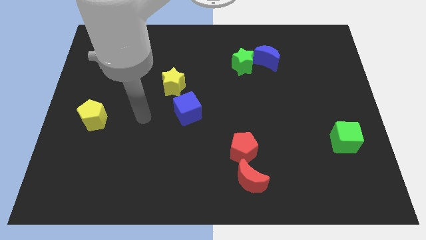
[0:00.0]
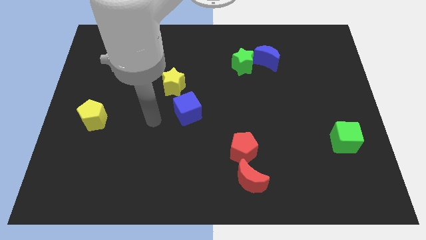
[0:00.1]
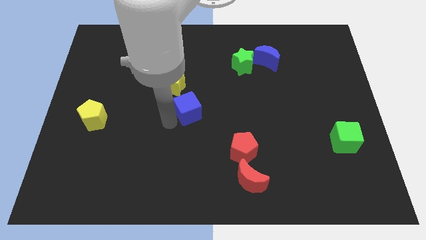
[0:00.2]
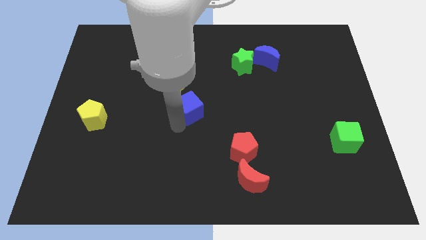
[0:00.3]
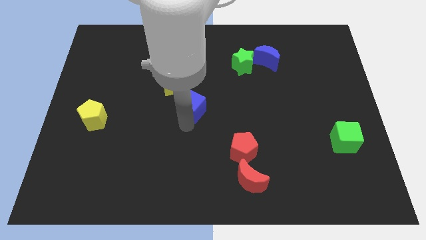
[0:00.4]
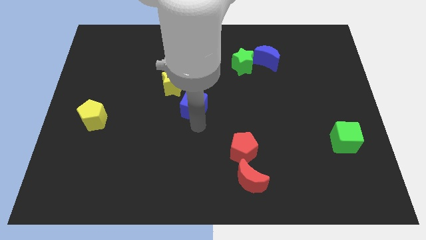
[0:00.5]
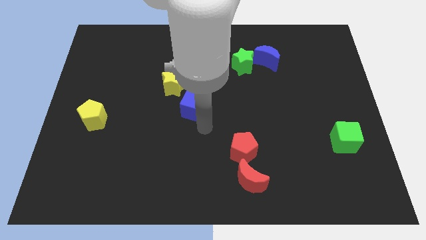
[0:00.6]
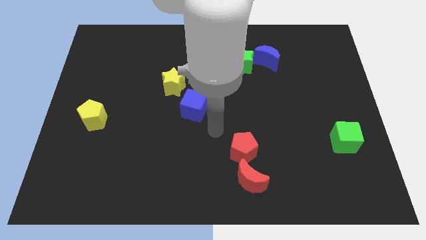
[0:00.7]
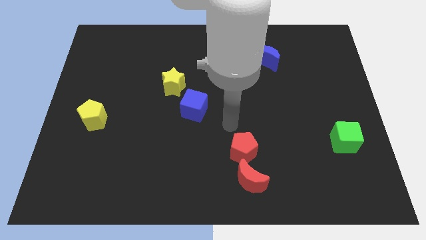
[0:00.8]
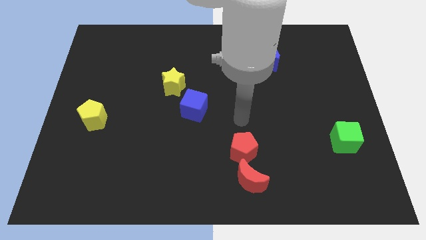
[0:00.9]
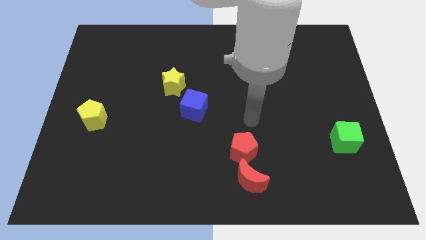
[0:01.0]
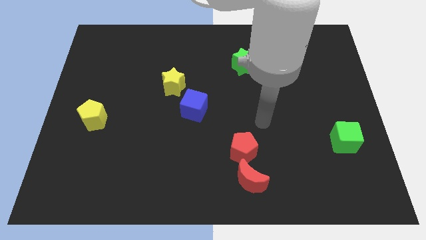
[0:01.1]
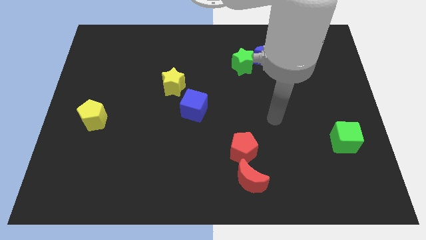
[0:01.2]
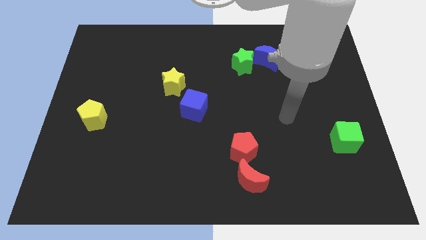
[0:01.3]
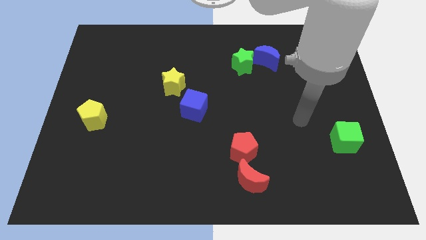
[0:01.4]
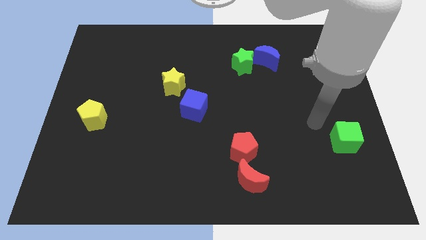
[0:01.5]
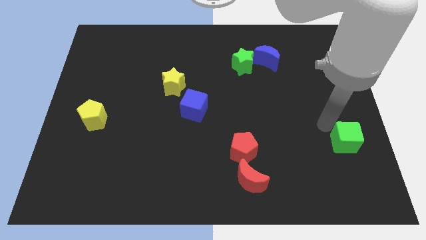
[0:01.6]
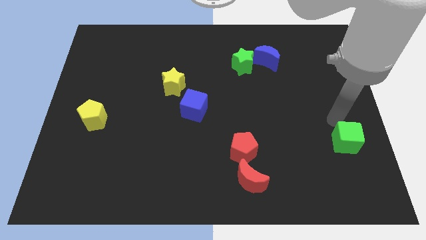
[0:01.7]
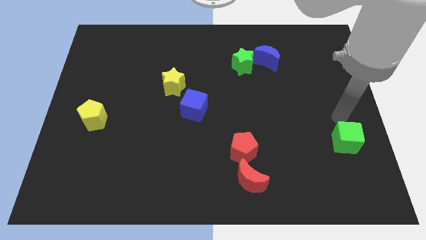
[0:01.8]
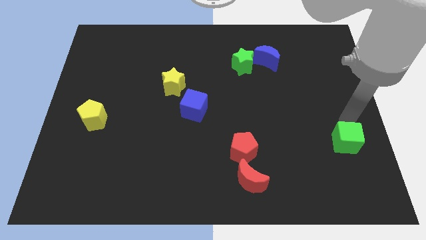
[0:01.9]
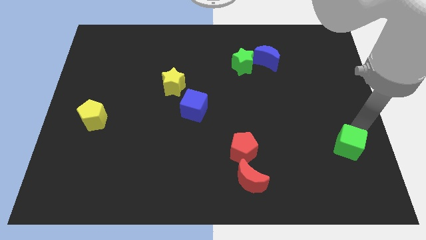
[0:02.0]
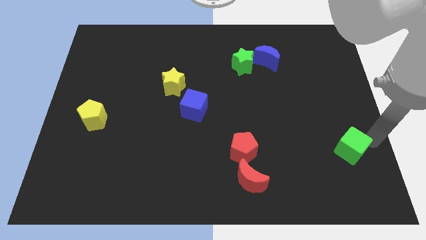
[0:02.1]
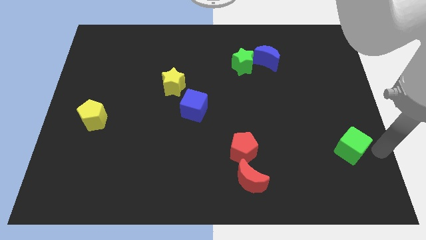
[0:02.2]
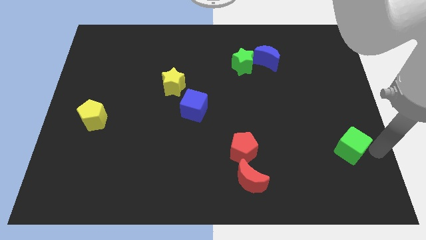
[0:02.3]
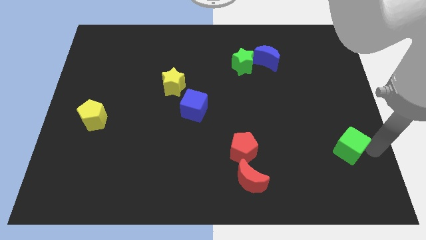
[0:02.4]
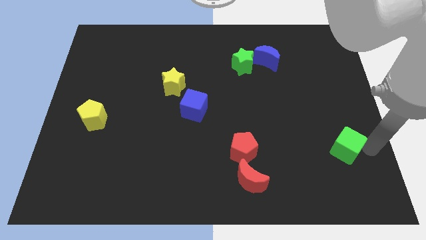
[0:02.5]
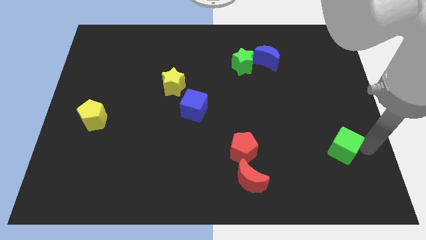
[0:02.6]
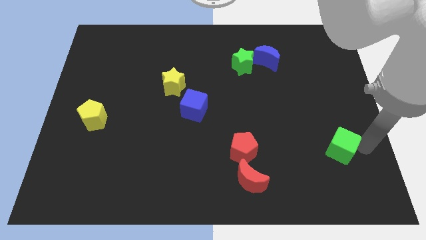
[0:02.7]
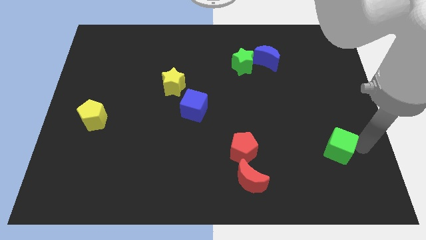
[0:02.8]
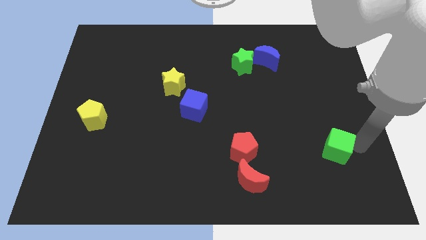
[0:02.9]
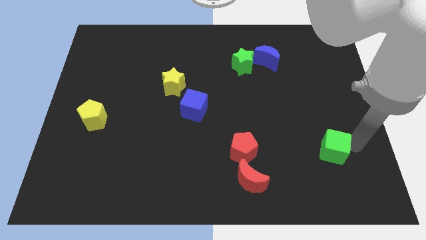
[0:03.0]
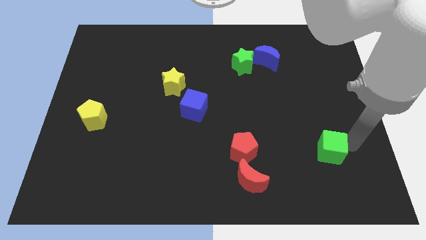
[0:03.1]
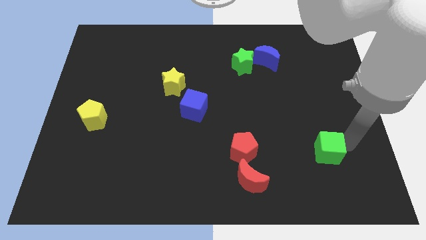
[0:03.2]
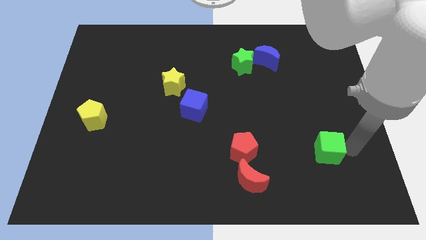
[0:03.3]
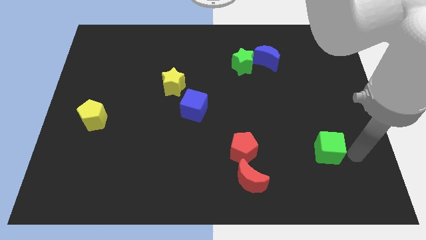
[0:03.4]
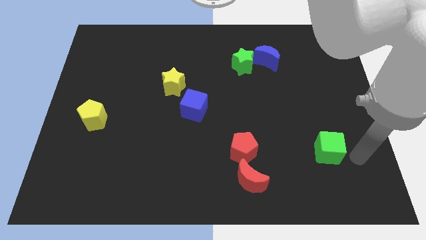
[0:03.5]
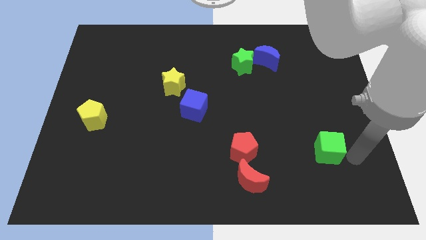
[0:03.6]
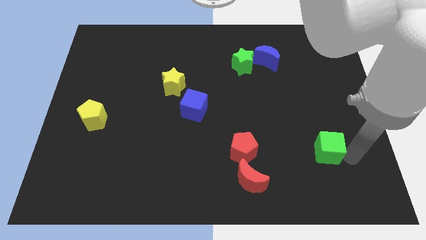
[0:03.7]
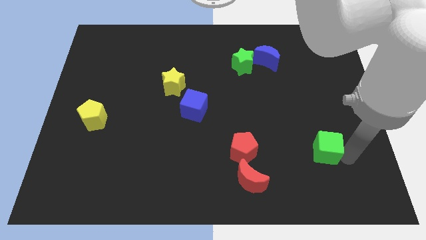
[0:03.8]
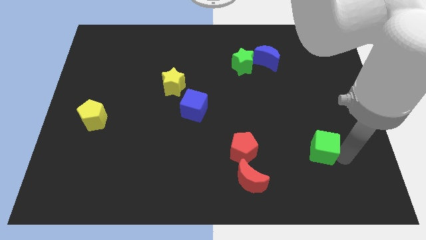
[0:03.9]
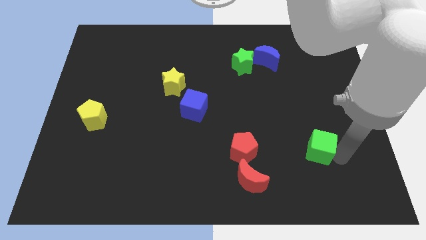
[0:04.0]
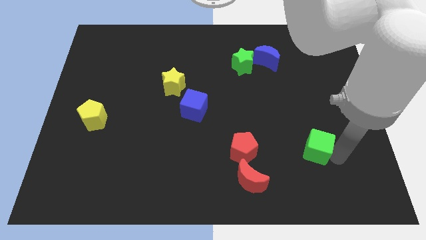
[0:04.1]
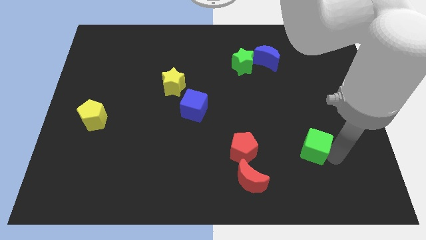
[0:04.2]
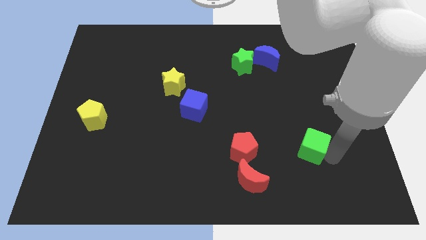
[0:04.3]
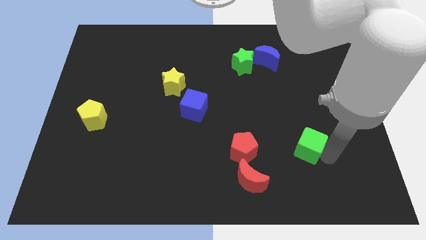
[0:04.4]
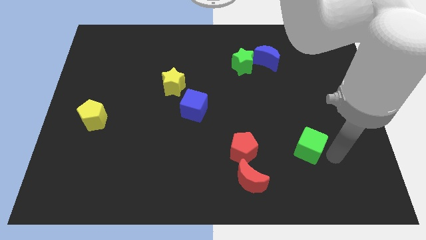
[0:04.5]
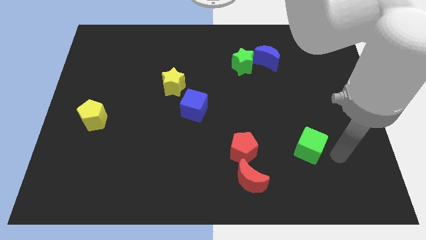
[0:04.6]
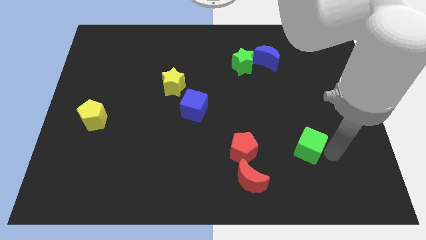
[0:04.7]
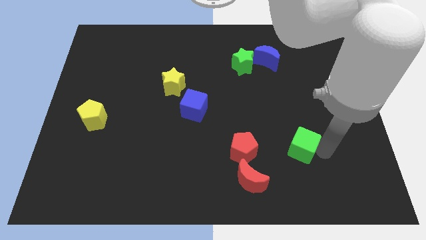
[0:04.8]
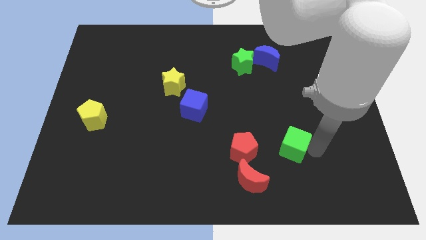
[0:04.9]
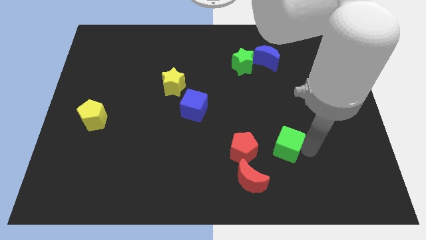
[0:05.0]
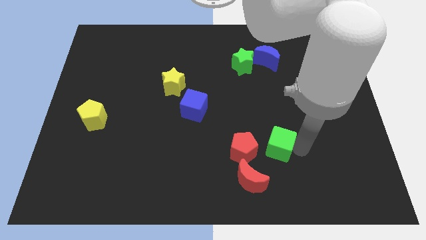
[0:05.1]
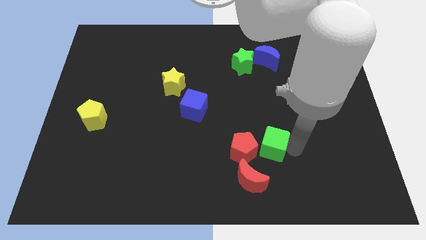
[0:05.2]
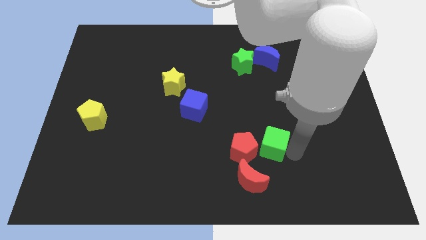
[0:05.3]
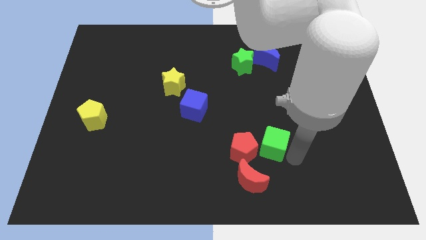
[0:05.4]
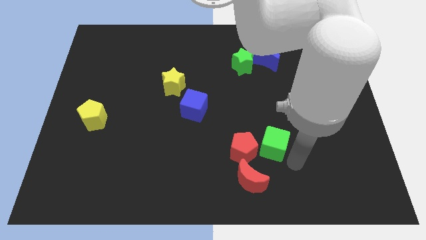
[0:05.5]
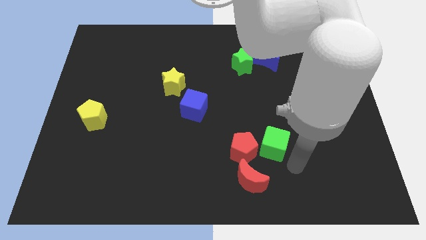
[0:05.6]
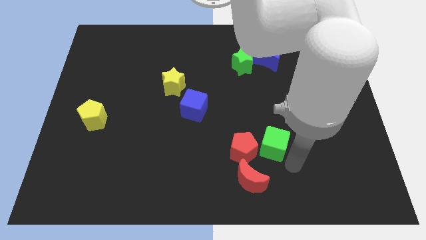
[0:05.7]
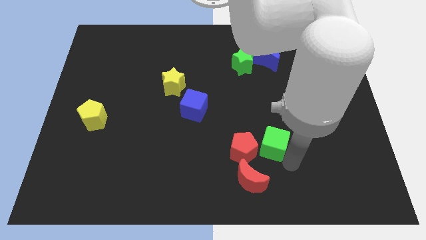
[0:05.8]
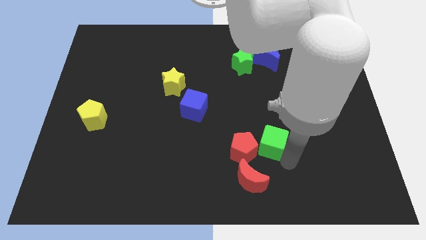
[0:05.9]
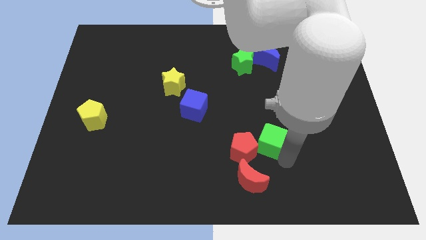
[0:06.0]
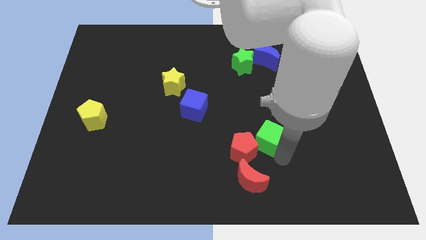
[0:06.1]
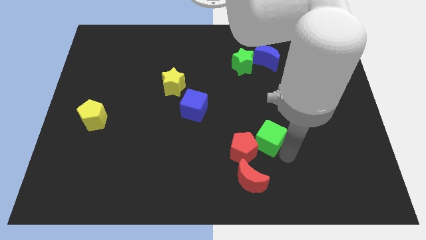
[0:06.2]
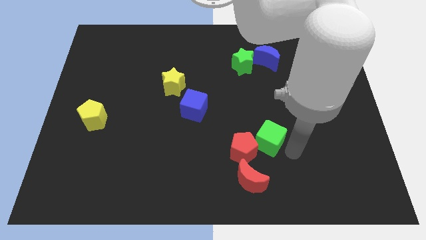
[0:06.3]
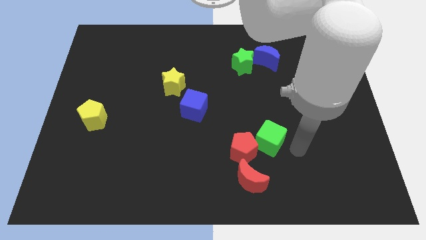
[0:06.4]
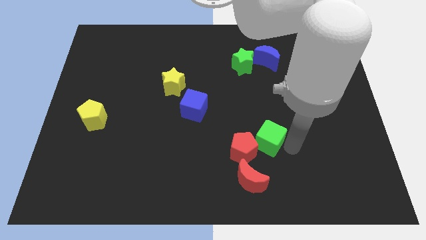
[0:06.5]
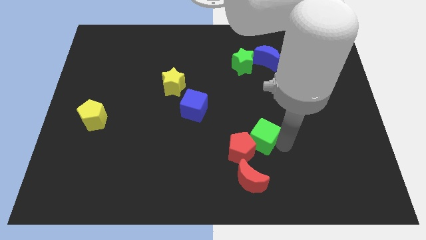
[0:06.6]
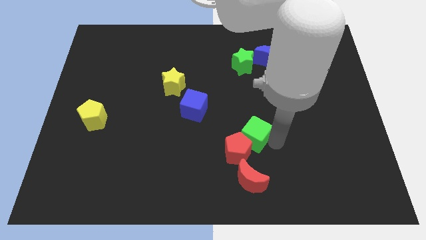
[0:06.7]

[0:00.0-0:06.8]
slide the green cube to the left

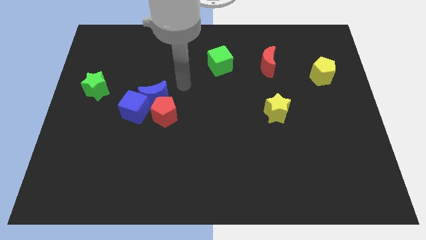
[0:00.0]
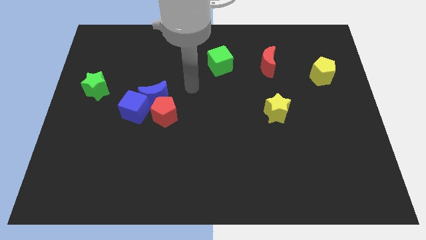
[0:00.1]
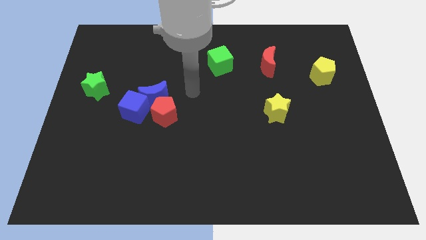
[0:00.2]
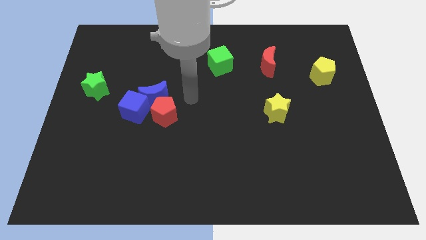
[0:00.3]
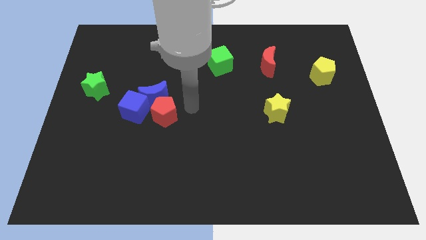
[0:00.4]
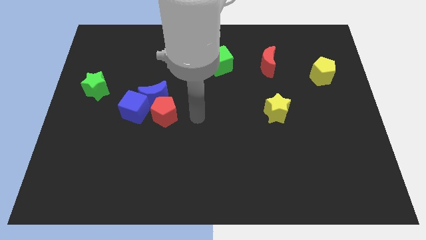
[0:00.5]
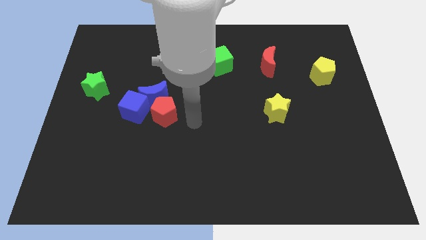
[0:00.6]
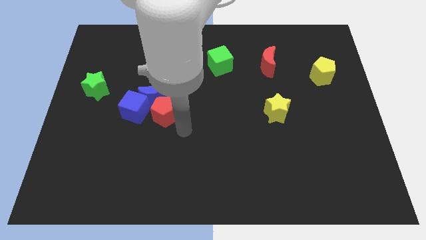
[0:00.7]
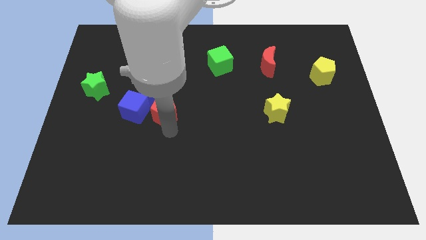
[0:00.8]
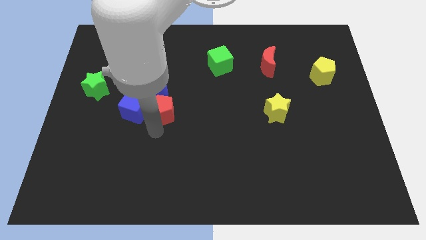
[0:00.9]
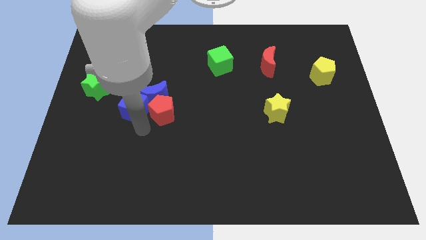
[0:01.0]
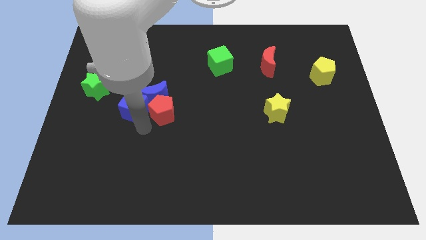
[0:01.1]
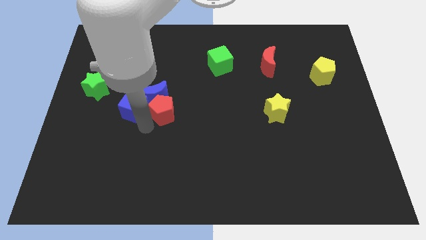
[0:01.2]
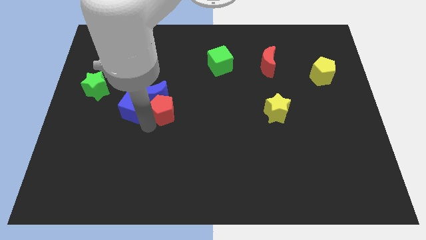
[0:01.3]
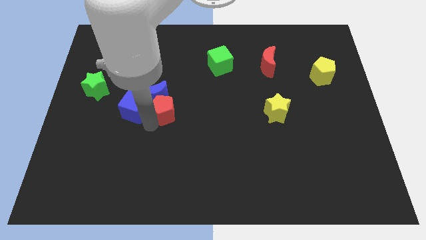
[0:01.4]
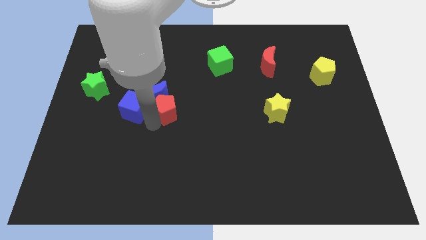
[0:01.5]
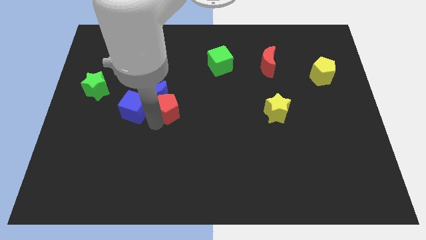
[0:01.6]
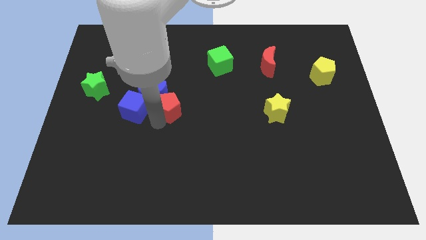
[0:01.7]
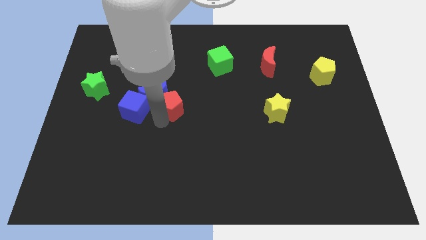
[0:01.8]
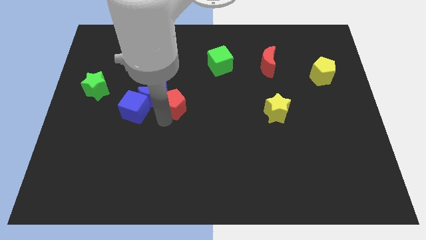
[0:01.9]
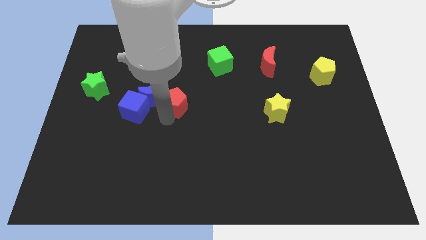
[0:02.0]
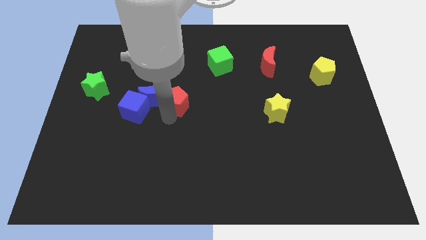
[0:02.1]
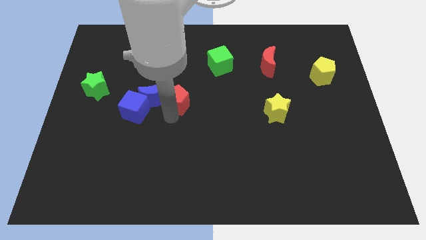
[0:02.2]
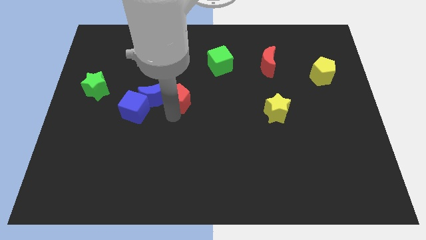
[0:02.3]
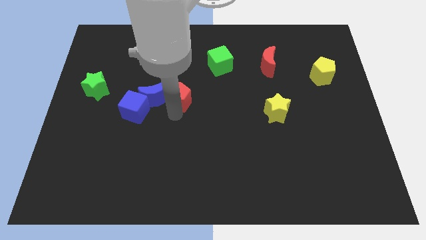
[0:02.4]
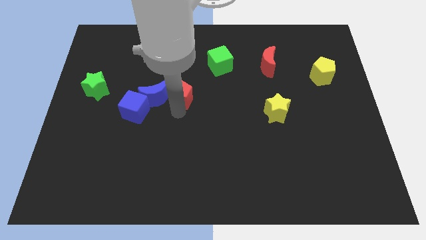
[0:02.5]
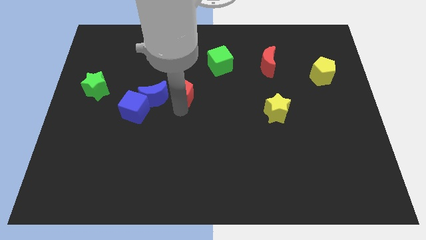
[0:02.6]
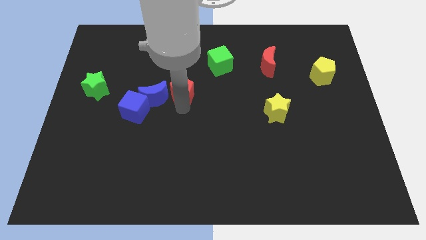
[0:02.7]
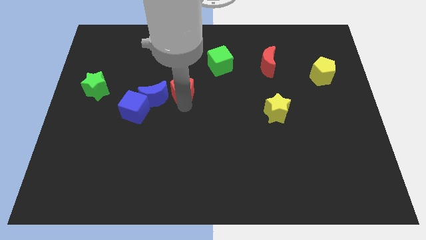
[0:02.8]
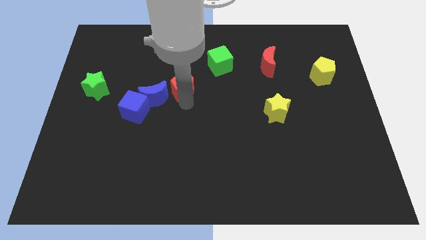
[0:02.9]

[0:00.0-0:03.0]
slightly move the red pentagon up
